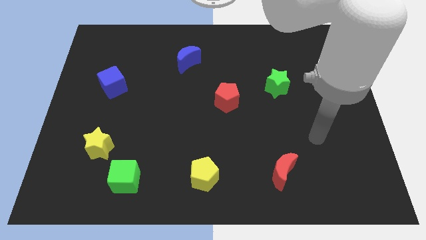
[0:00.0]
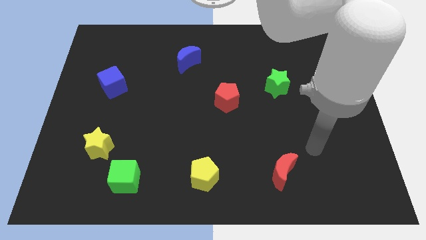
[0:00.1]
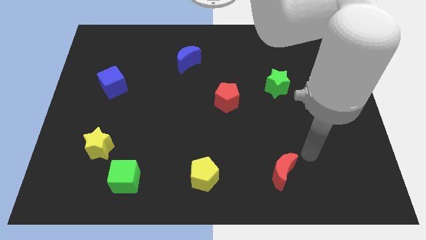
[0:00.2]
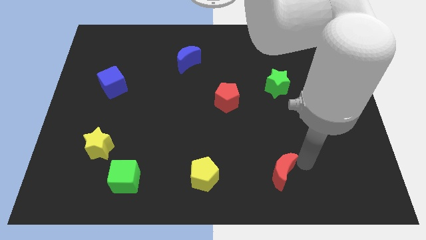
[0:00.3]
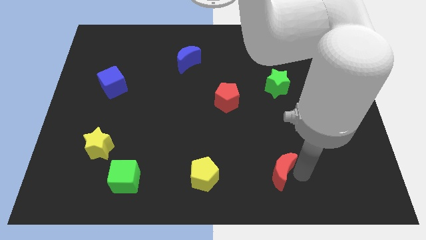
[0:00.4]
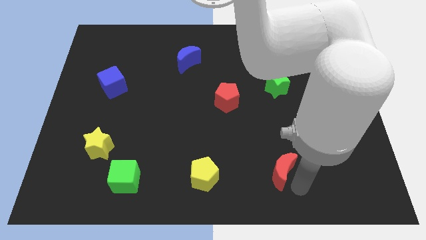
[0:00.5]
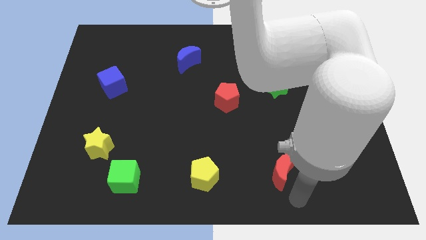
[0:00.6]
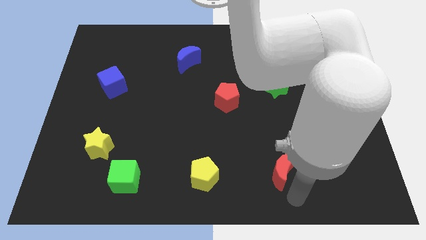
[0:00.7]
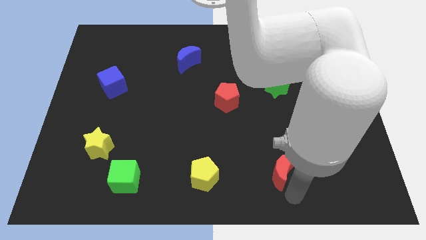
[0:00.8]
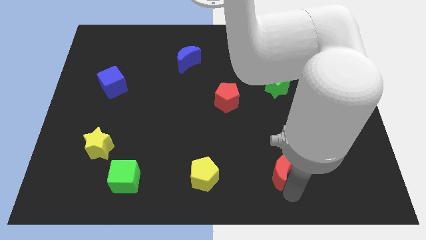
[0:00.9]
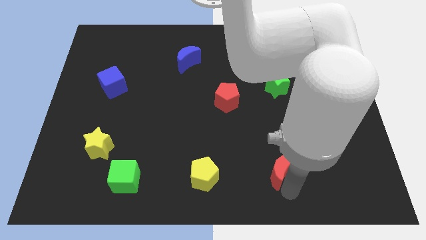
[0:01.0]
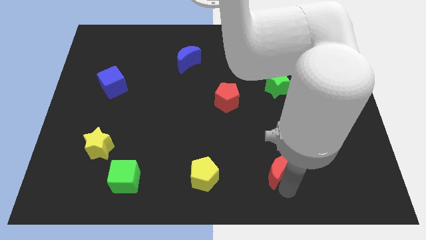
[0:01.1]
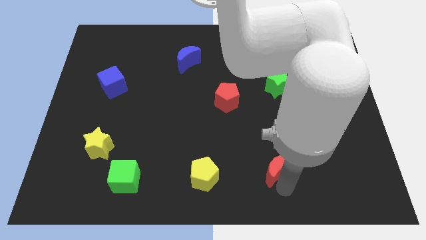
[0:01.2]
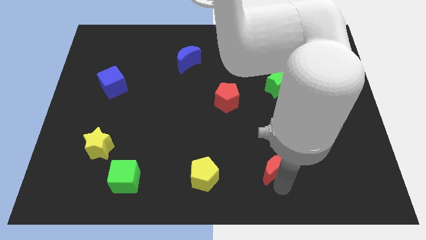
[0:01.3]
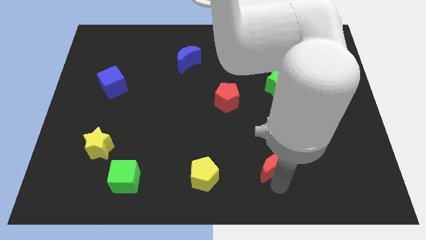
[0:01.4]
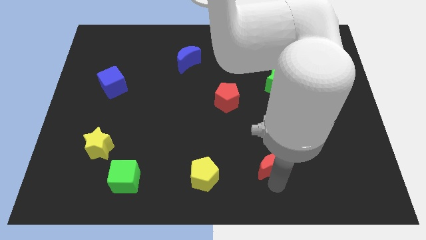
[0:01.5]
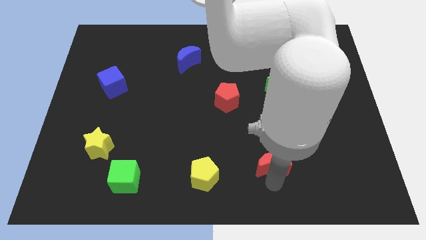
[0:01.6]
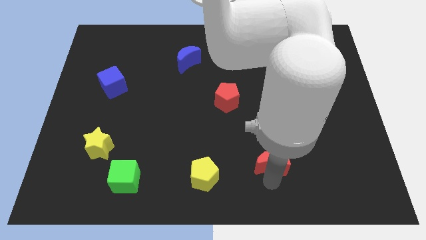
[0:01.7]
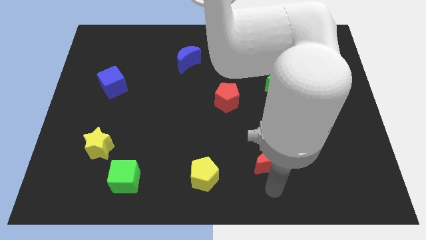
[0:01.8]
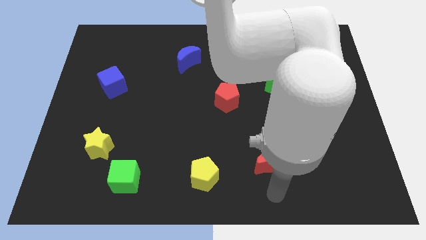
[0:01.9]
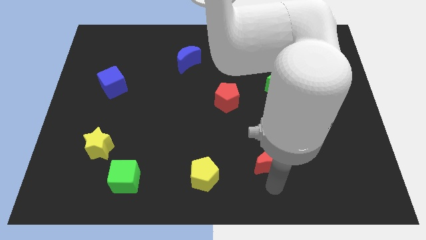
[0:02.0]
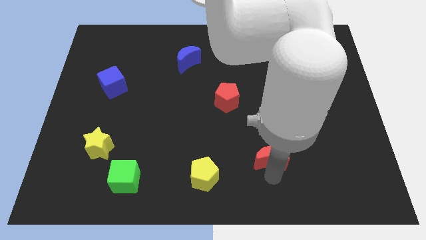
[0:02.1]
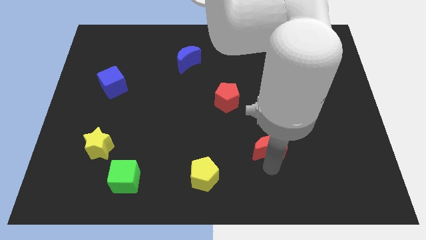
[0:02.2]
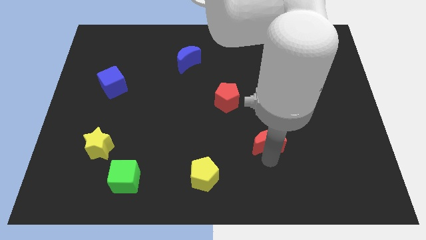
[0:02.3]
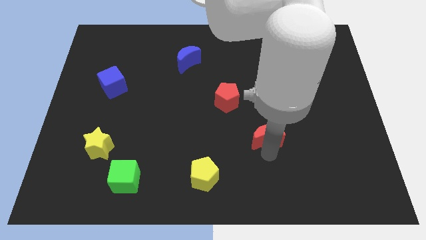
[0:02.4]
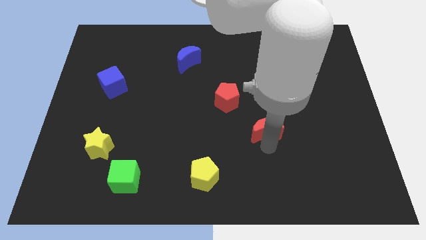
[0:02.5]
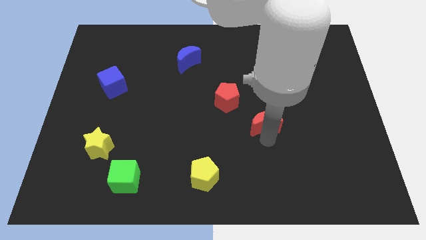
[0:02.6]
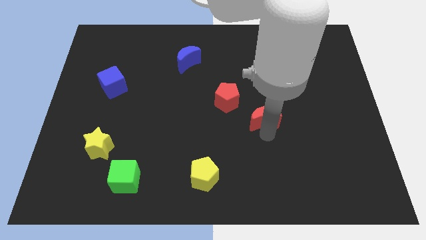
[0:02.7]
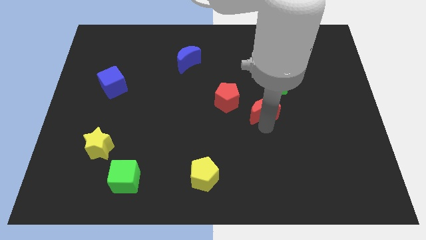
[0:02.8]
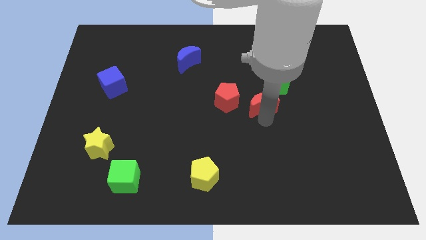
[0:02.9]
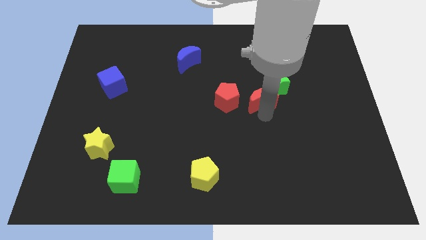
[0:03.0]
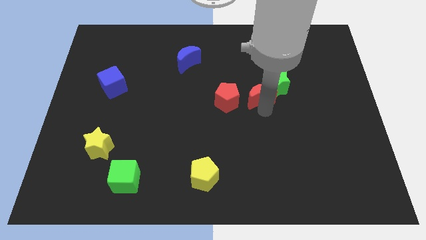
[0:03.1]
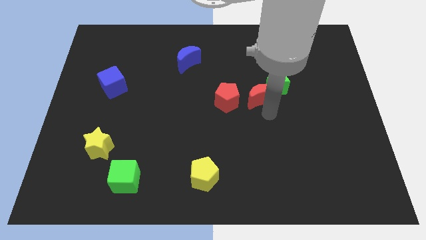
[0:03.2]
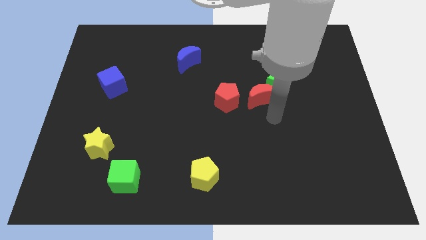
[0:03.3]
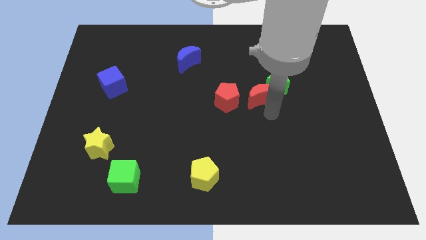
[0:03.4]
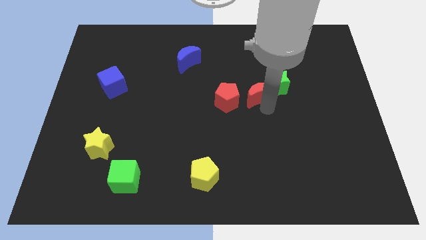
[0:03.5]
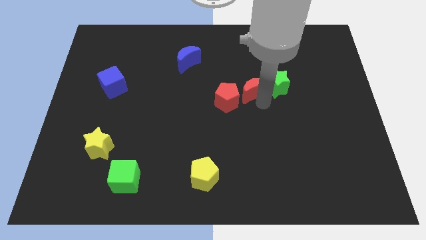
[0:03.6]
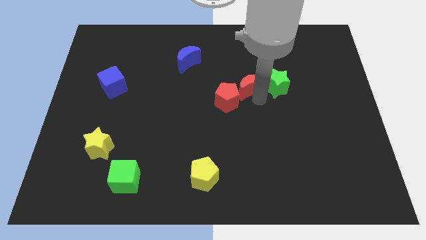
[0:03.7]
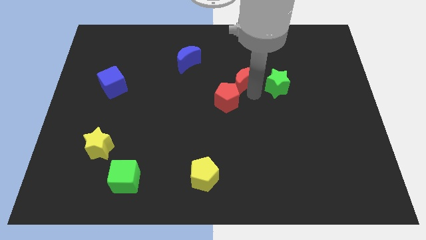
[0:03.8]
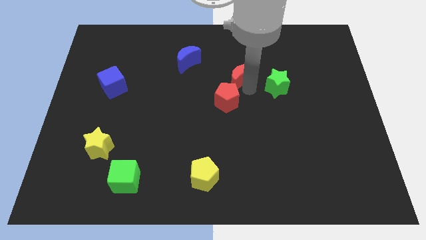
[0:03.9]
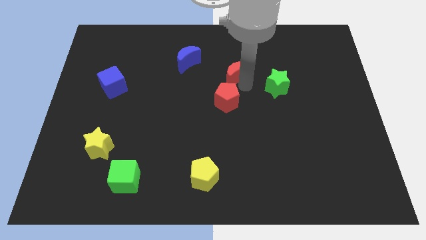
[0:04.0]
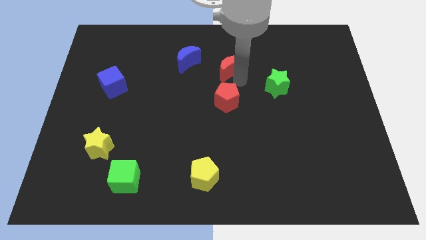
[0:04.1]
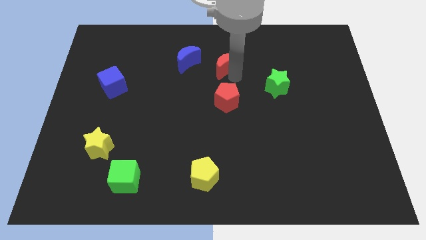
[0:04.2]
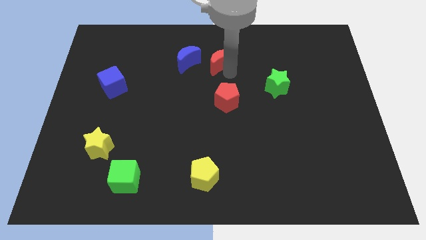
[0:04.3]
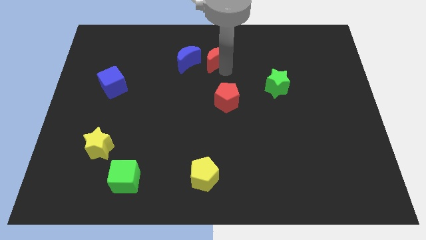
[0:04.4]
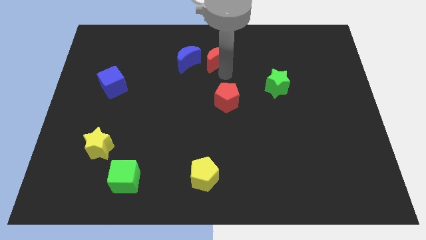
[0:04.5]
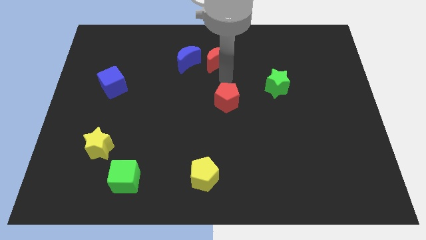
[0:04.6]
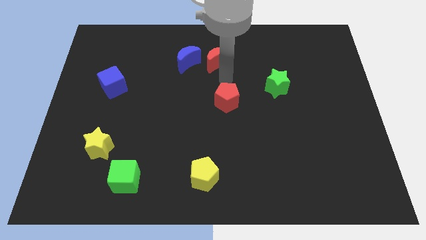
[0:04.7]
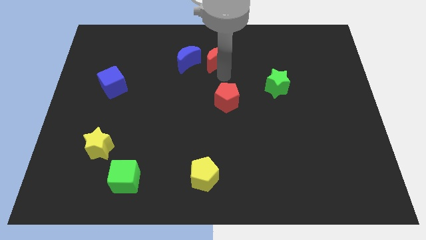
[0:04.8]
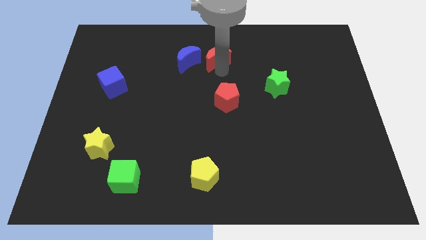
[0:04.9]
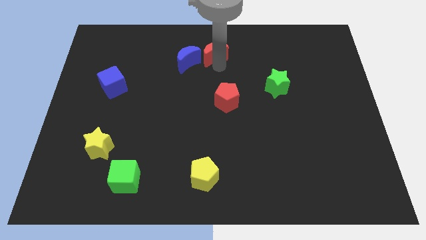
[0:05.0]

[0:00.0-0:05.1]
push the red moon to the top

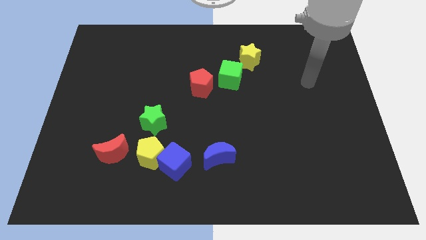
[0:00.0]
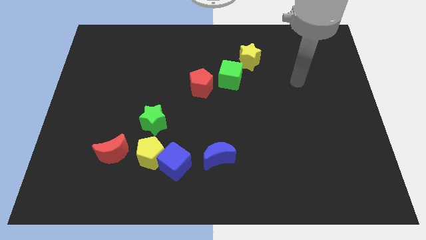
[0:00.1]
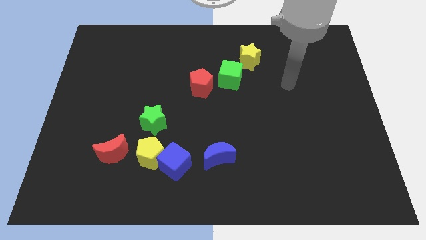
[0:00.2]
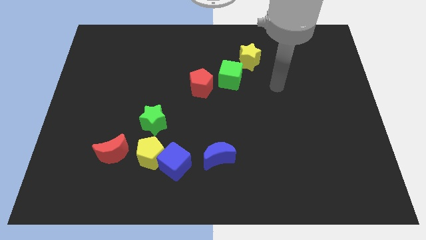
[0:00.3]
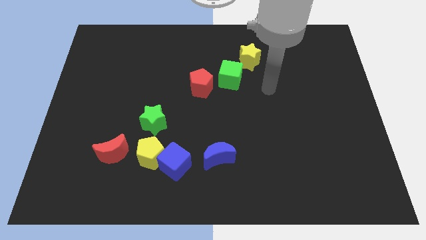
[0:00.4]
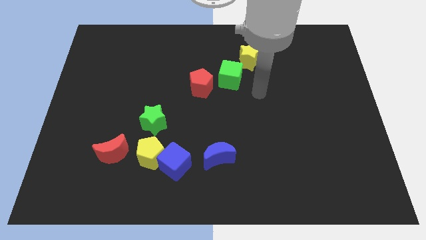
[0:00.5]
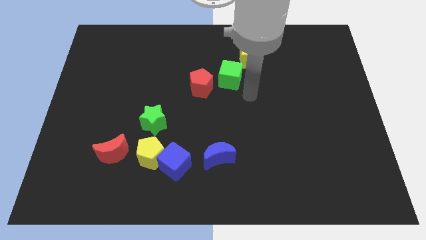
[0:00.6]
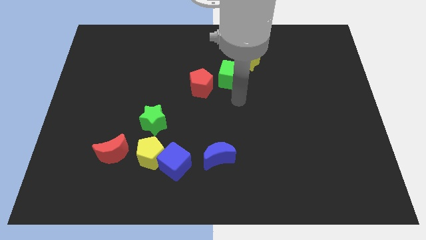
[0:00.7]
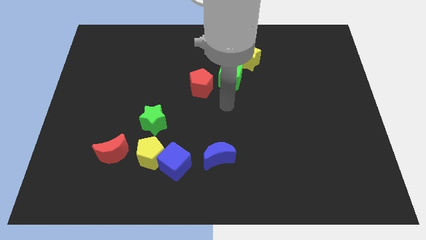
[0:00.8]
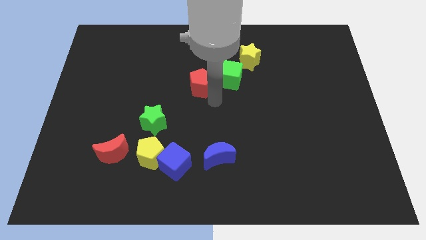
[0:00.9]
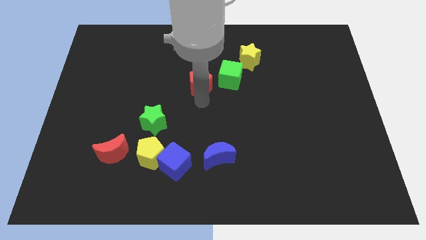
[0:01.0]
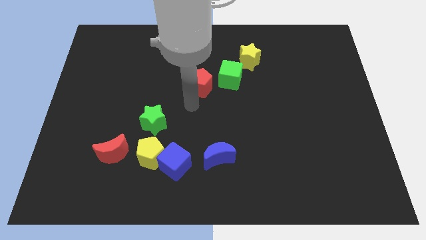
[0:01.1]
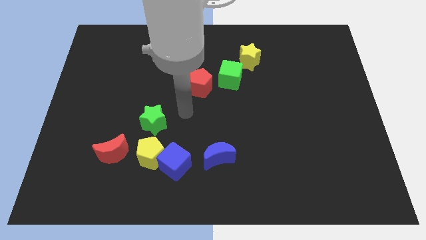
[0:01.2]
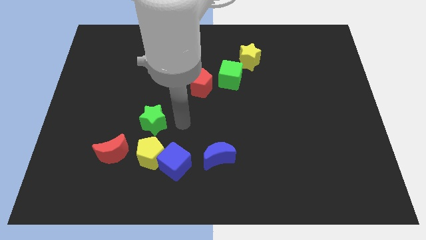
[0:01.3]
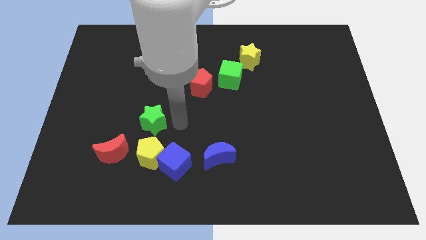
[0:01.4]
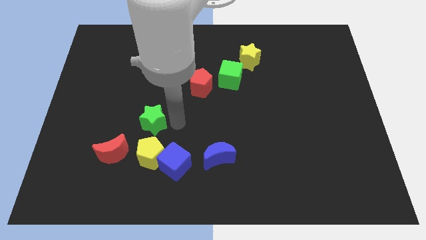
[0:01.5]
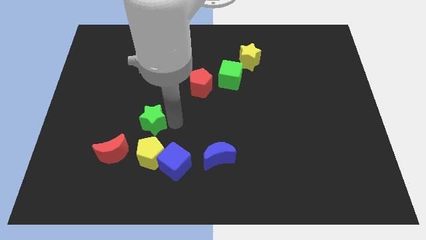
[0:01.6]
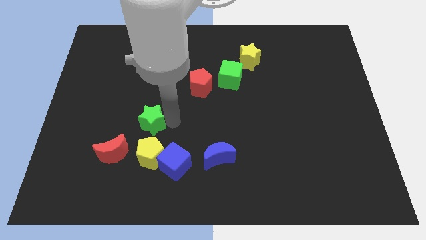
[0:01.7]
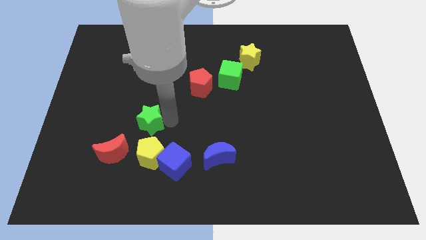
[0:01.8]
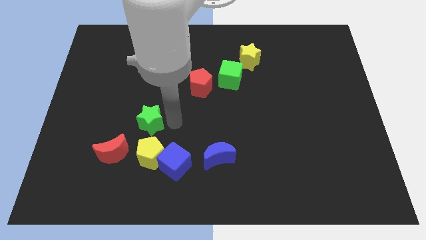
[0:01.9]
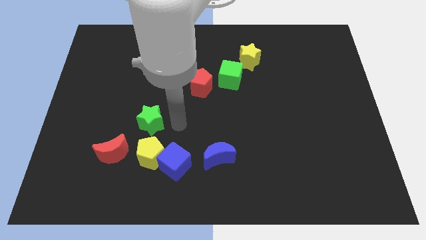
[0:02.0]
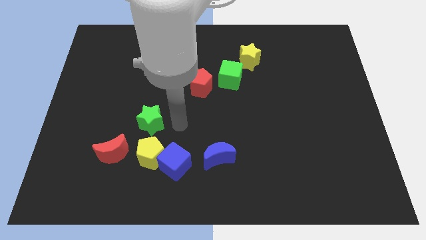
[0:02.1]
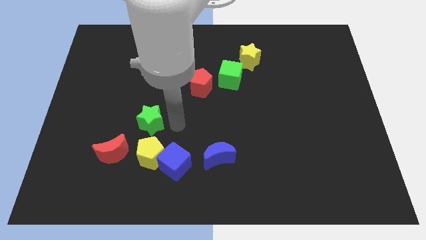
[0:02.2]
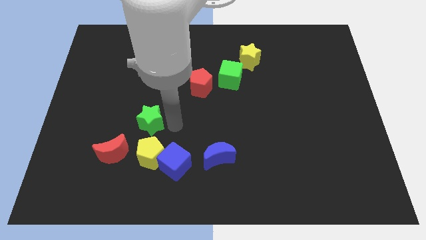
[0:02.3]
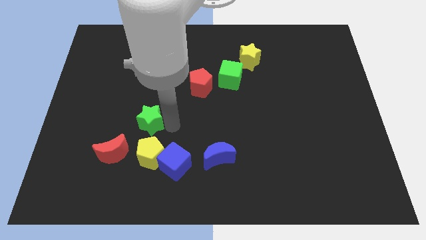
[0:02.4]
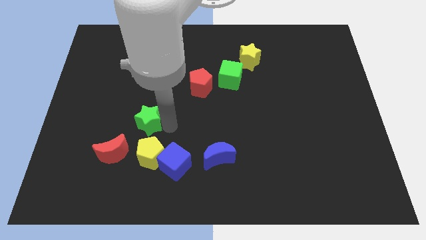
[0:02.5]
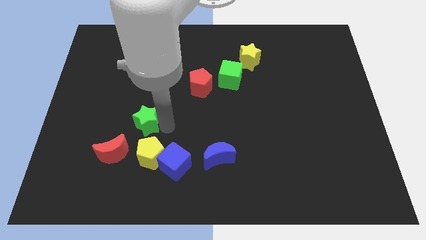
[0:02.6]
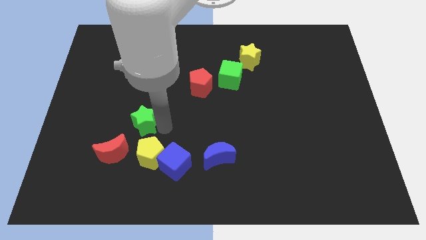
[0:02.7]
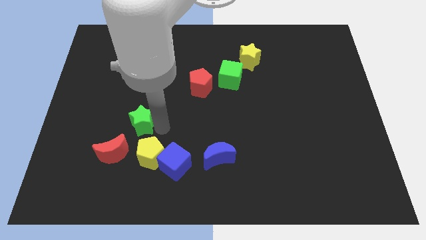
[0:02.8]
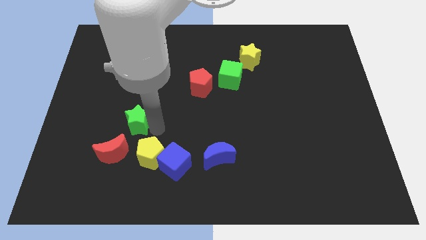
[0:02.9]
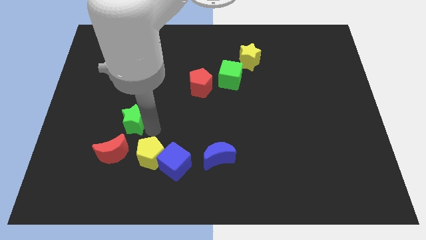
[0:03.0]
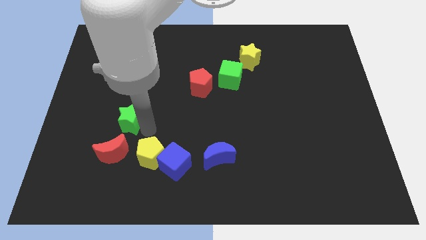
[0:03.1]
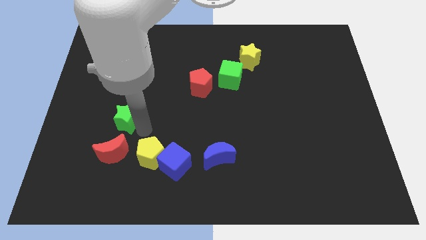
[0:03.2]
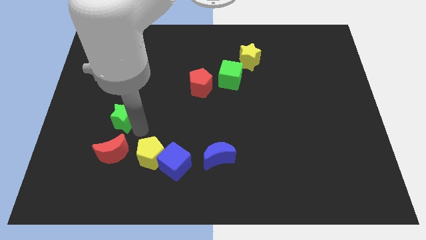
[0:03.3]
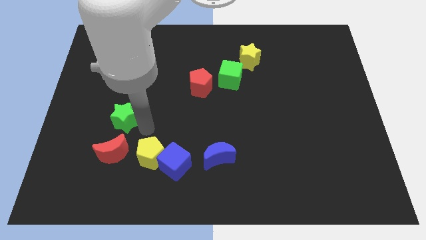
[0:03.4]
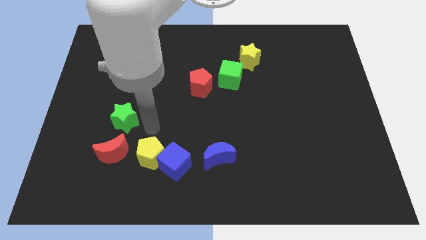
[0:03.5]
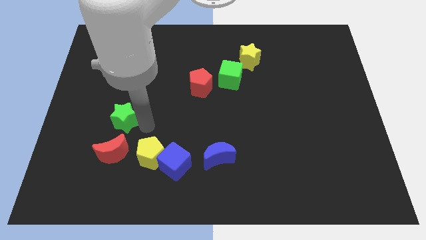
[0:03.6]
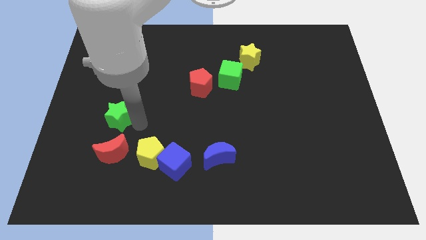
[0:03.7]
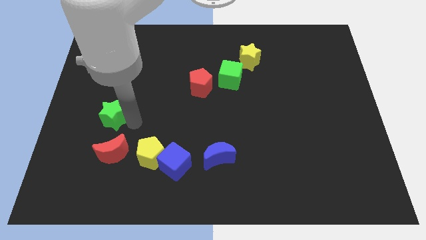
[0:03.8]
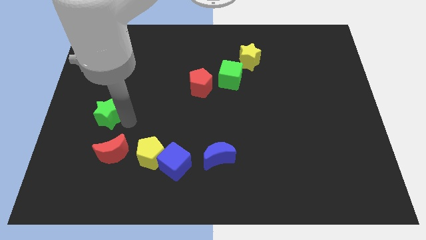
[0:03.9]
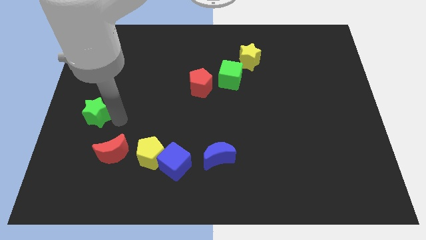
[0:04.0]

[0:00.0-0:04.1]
move the green star to the left side
